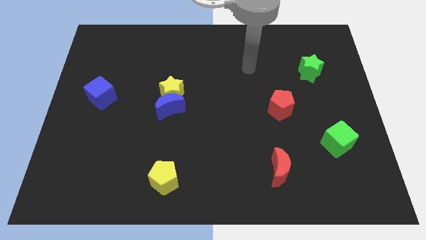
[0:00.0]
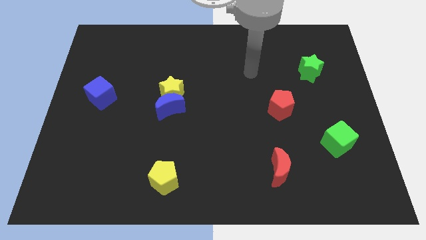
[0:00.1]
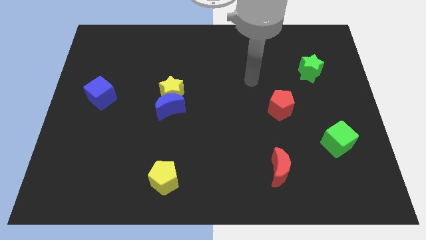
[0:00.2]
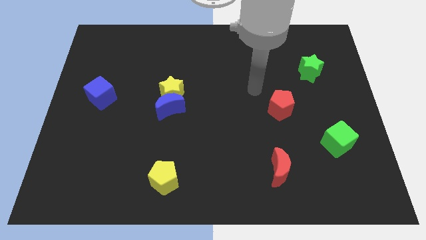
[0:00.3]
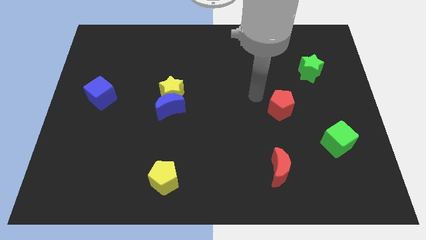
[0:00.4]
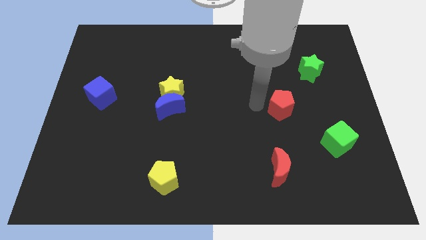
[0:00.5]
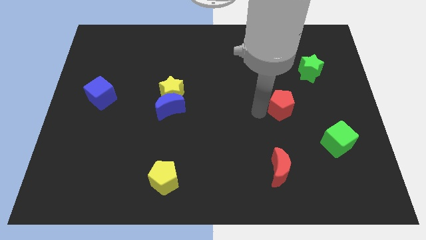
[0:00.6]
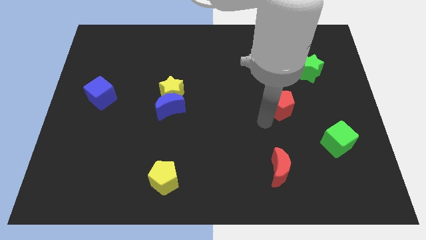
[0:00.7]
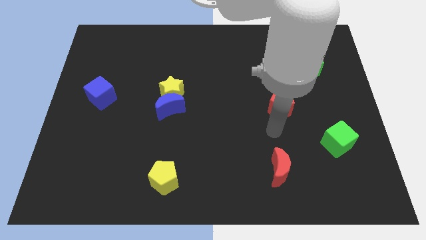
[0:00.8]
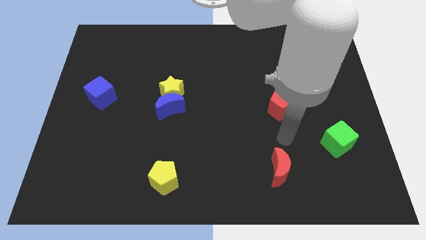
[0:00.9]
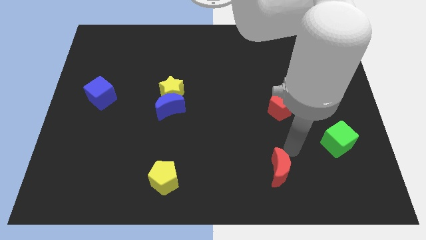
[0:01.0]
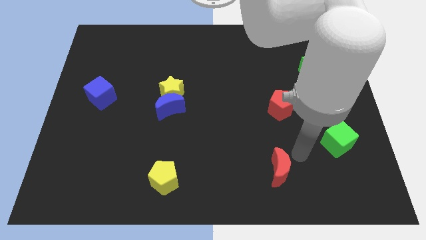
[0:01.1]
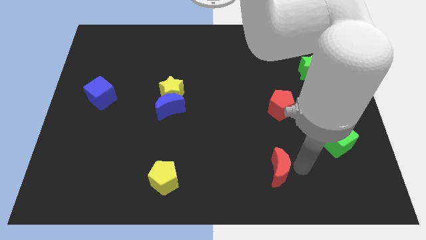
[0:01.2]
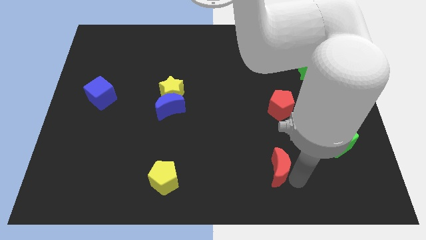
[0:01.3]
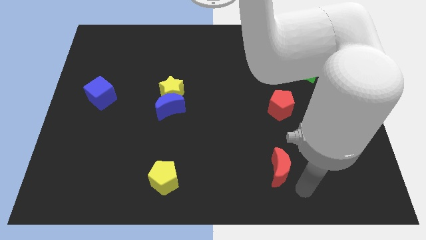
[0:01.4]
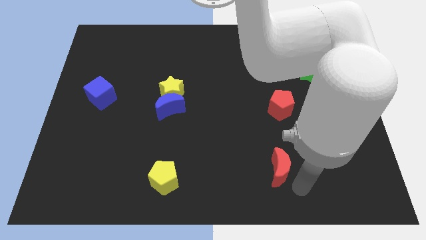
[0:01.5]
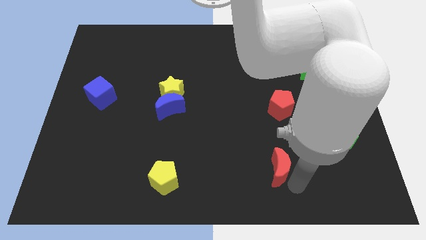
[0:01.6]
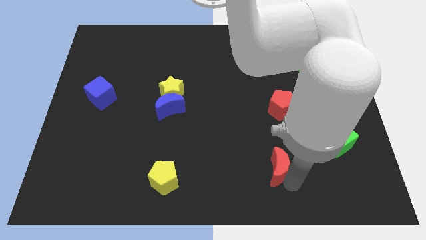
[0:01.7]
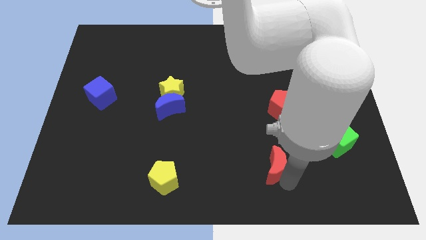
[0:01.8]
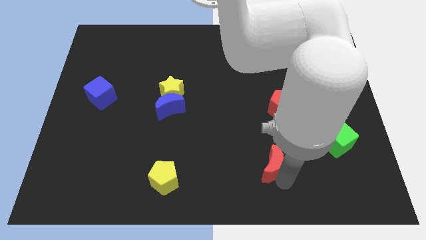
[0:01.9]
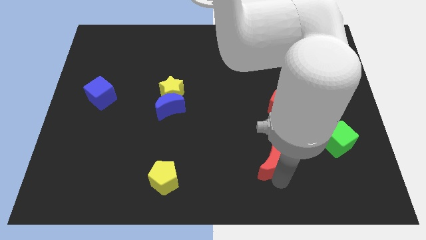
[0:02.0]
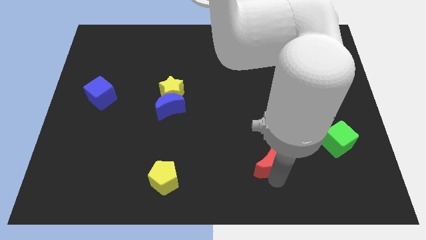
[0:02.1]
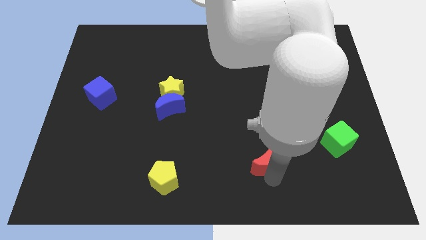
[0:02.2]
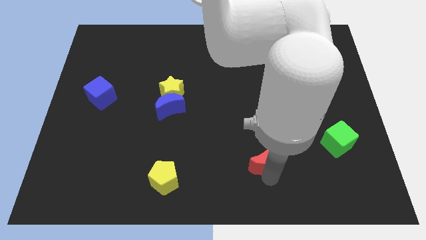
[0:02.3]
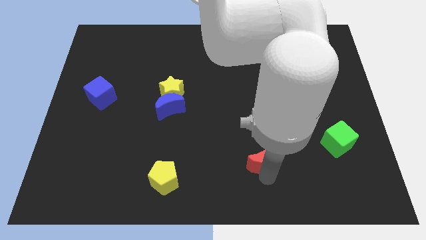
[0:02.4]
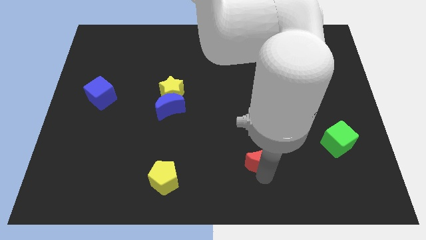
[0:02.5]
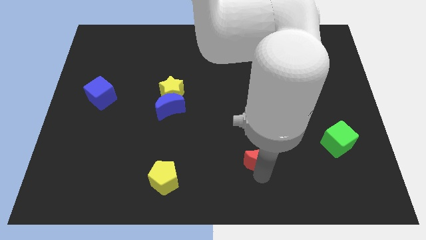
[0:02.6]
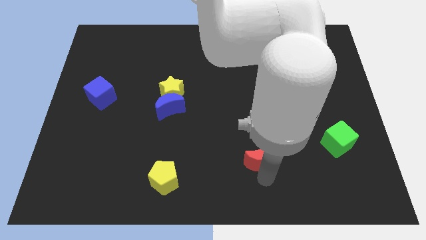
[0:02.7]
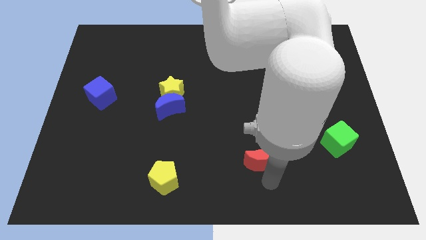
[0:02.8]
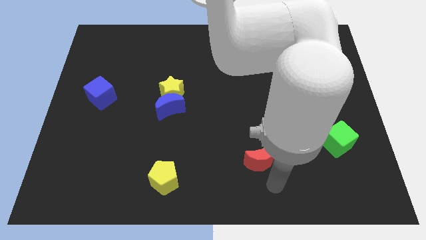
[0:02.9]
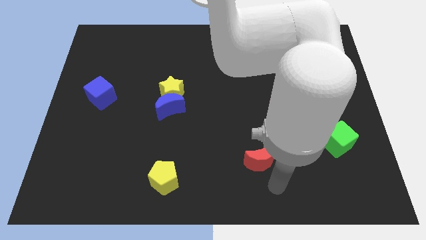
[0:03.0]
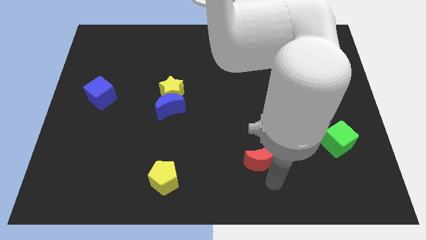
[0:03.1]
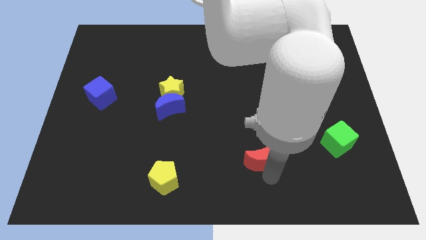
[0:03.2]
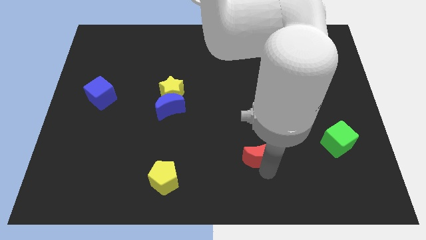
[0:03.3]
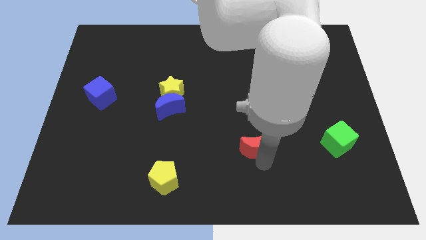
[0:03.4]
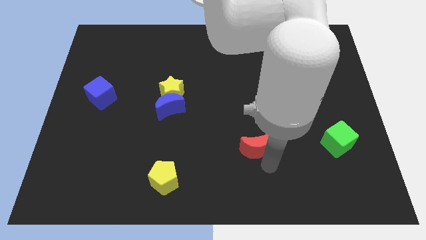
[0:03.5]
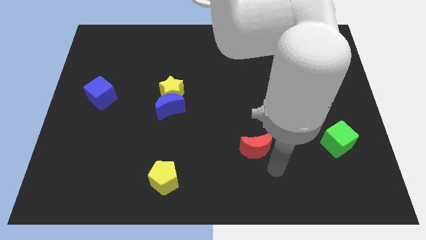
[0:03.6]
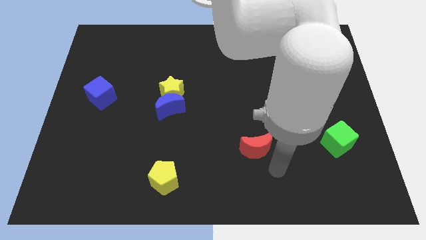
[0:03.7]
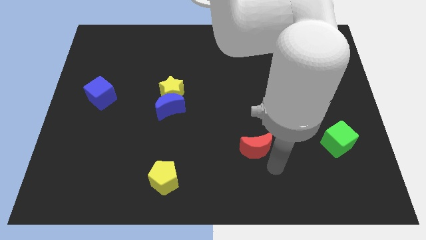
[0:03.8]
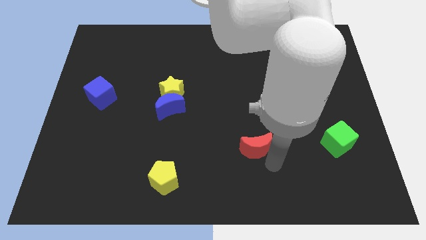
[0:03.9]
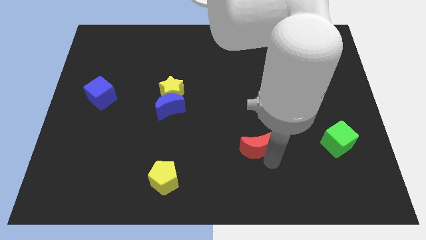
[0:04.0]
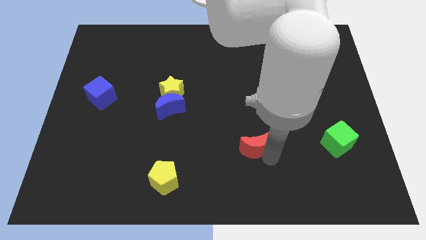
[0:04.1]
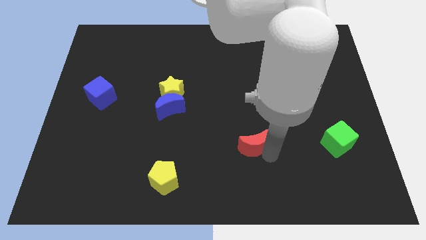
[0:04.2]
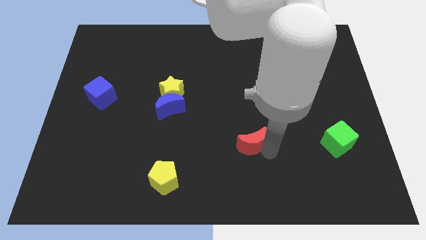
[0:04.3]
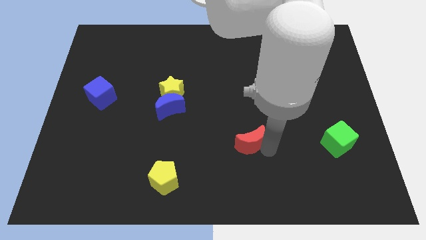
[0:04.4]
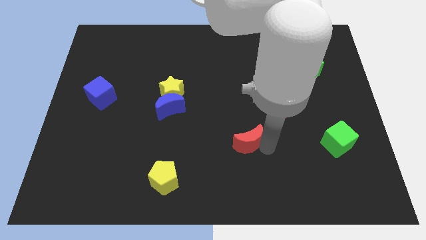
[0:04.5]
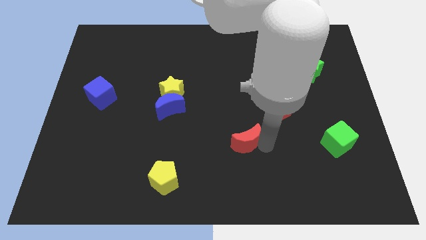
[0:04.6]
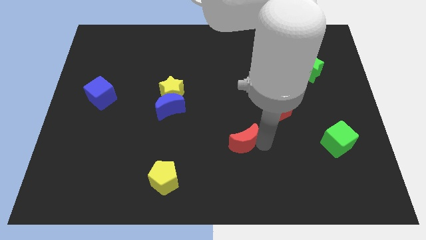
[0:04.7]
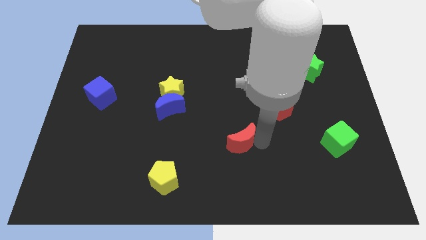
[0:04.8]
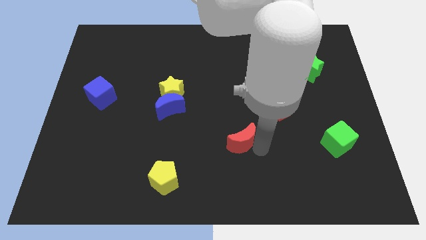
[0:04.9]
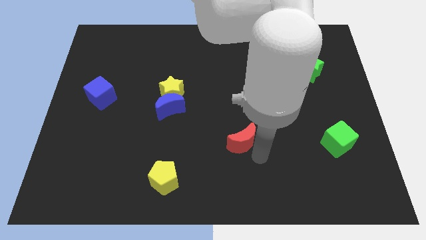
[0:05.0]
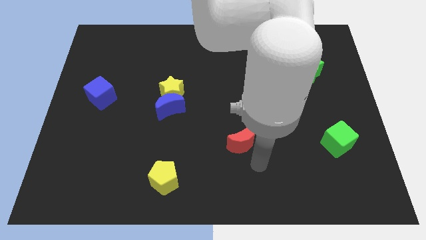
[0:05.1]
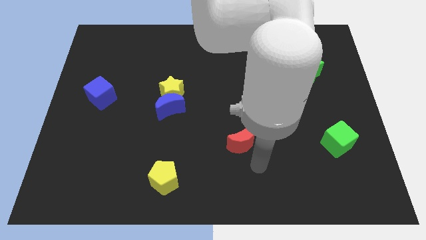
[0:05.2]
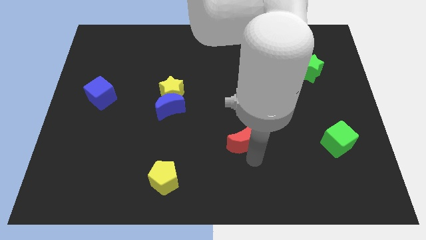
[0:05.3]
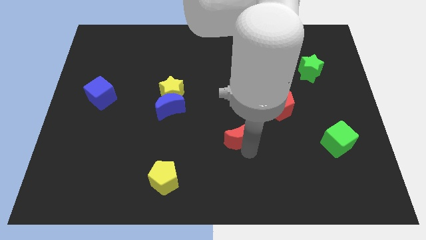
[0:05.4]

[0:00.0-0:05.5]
move the red moon to the middle of the board

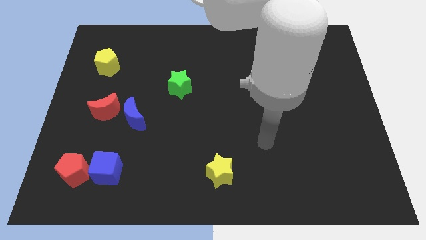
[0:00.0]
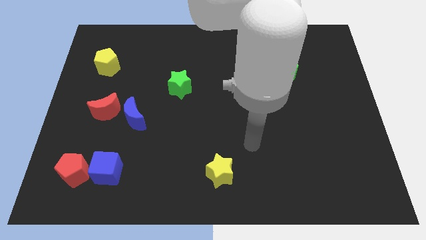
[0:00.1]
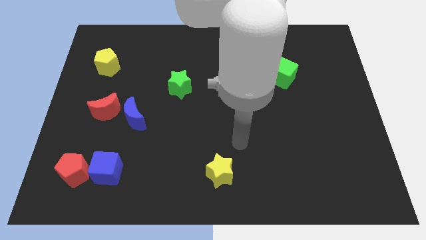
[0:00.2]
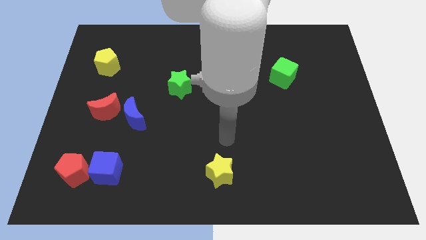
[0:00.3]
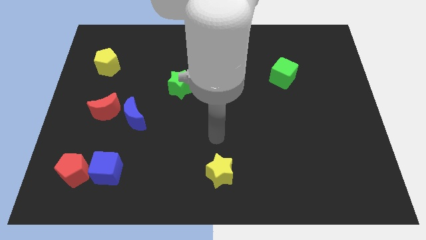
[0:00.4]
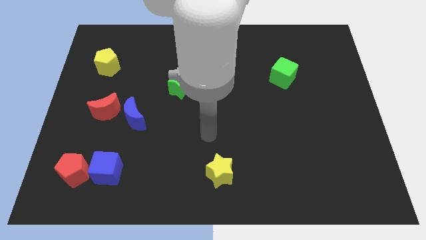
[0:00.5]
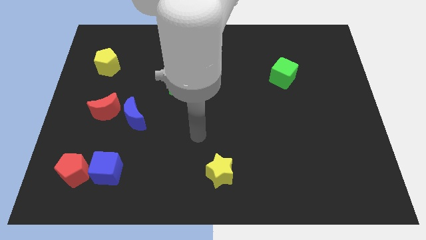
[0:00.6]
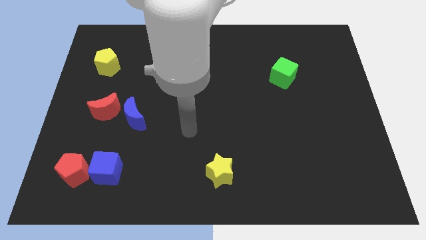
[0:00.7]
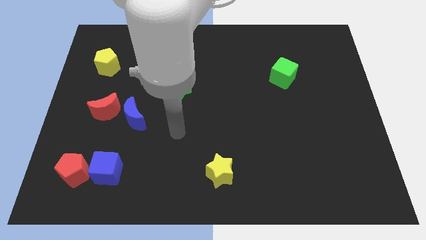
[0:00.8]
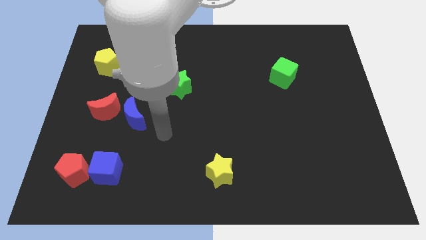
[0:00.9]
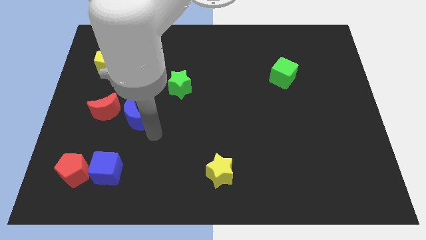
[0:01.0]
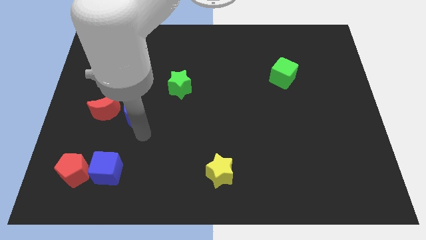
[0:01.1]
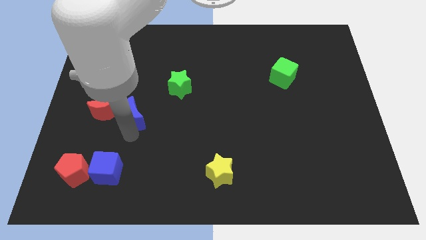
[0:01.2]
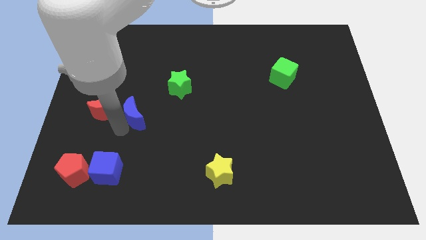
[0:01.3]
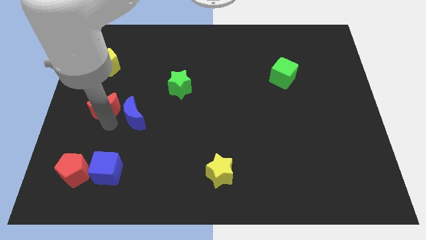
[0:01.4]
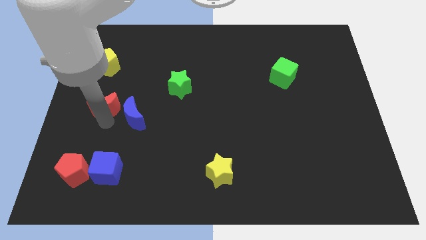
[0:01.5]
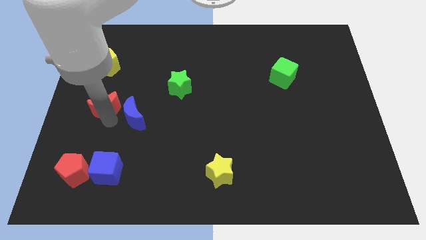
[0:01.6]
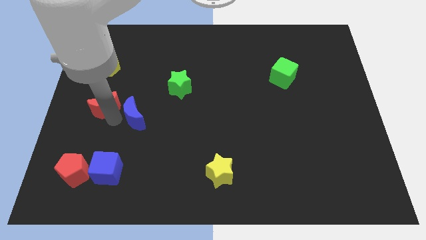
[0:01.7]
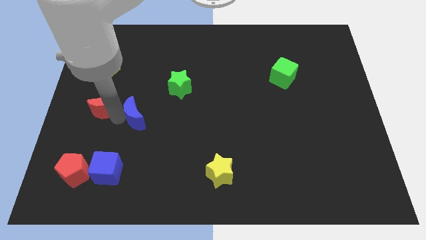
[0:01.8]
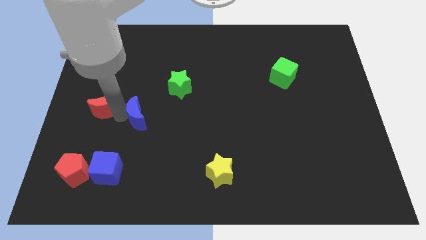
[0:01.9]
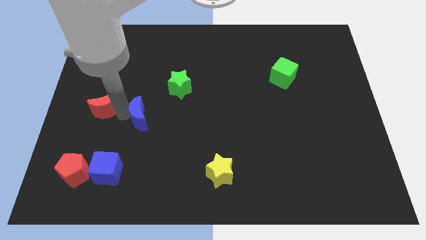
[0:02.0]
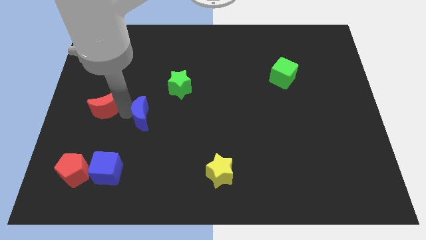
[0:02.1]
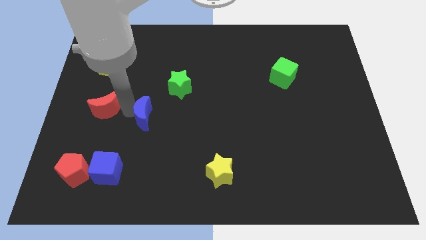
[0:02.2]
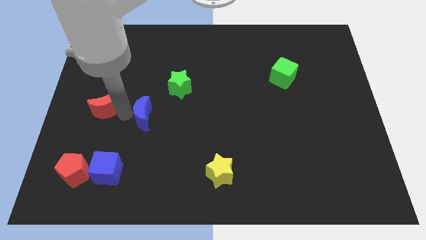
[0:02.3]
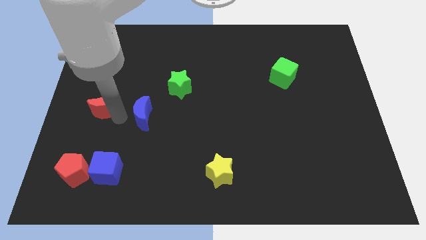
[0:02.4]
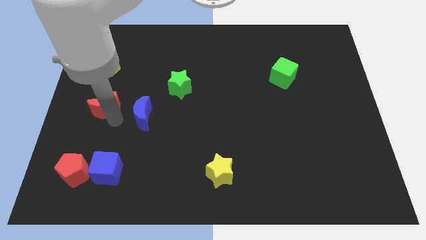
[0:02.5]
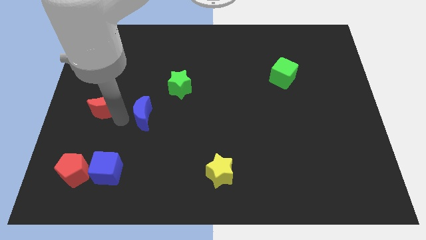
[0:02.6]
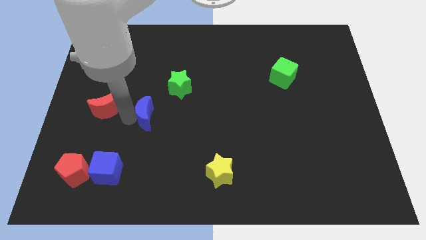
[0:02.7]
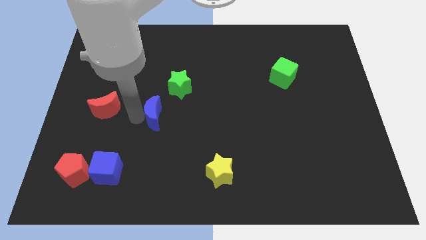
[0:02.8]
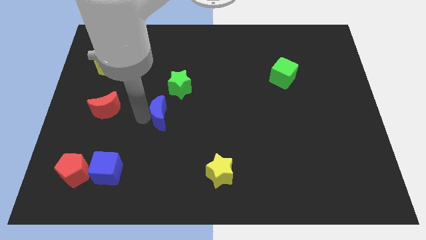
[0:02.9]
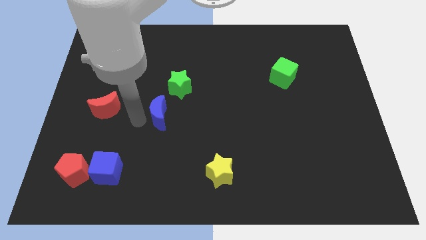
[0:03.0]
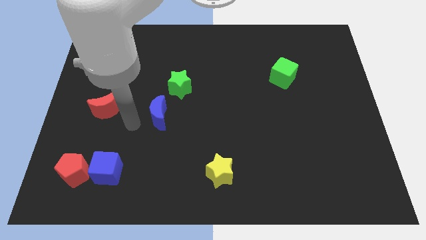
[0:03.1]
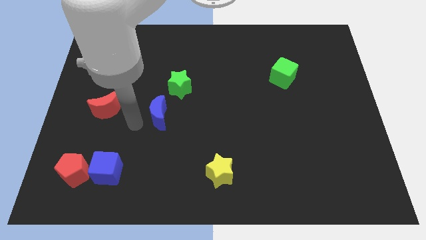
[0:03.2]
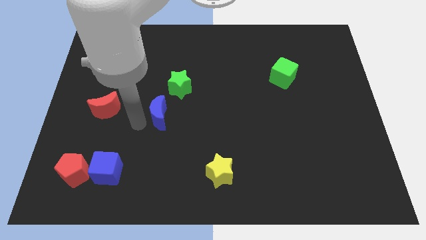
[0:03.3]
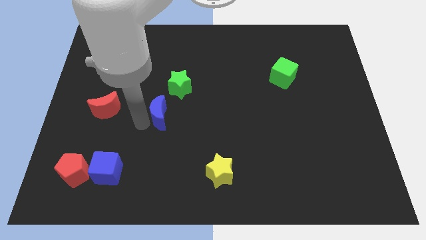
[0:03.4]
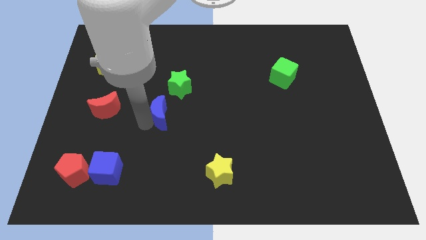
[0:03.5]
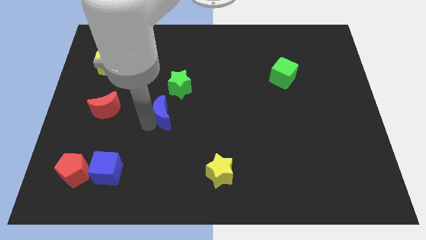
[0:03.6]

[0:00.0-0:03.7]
push the blue moon to the middle of the board
